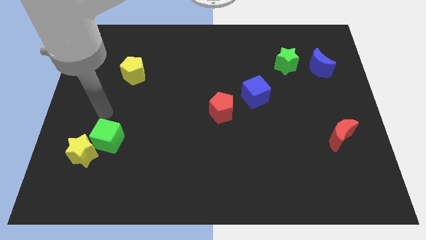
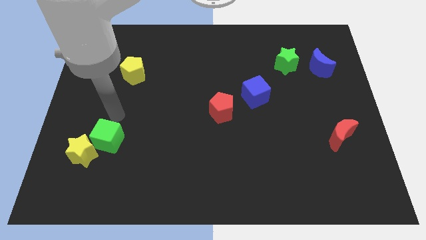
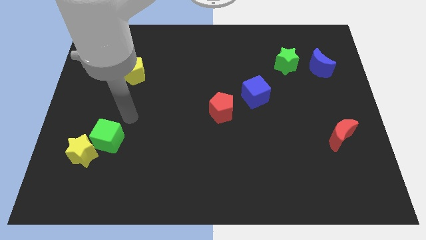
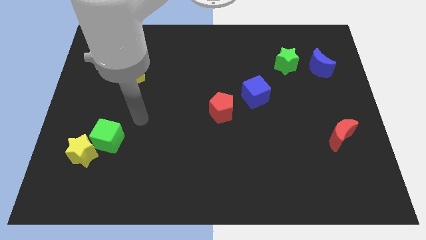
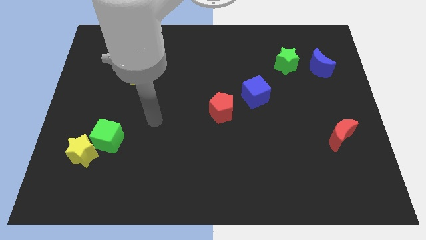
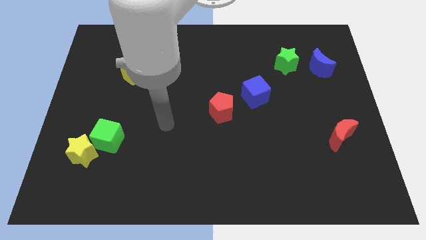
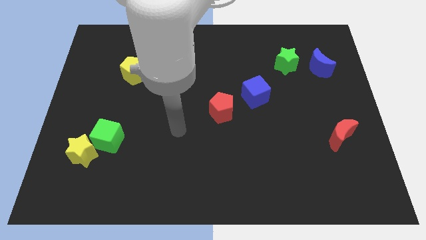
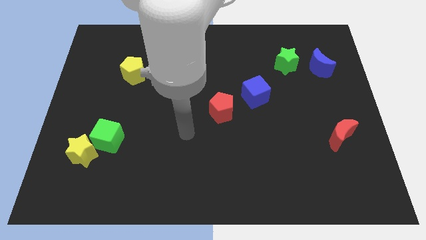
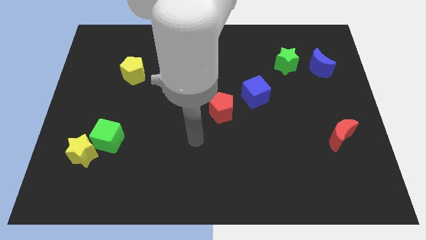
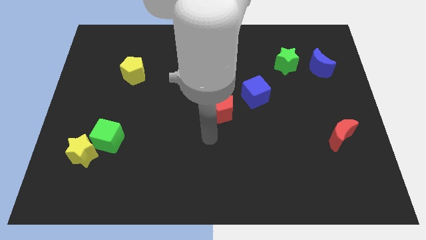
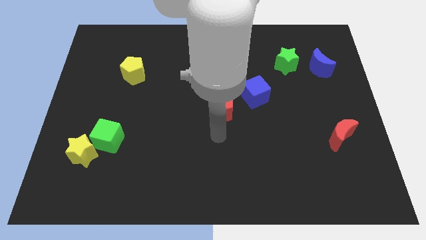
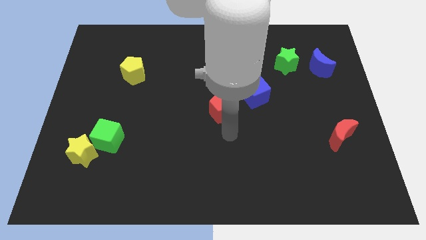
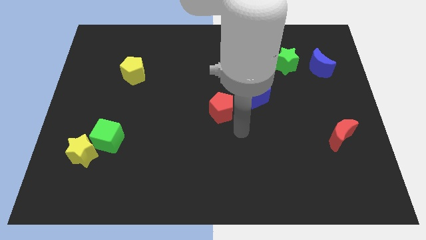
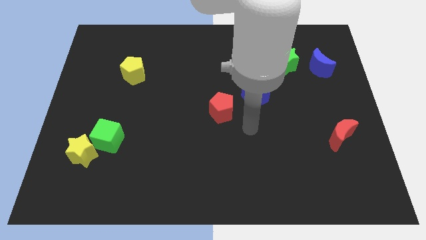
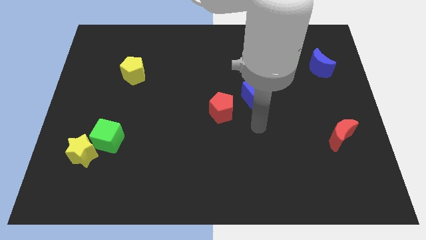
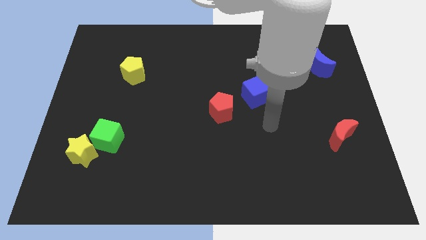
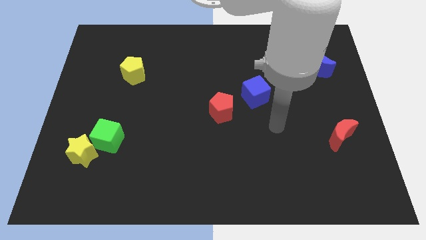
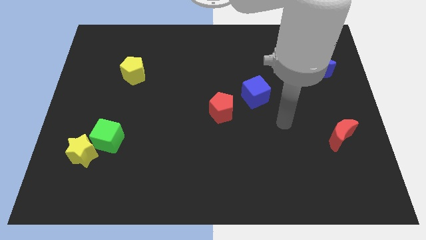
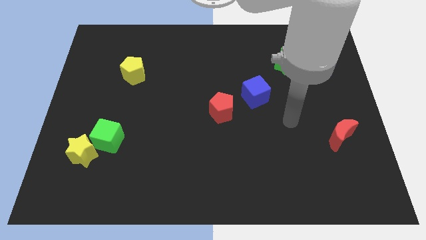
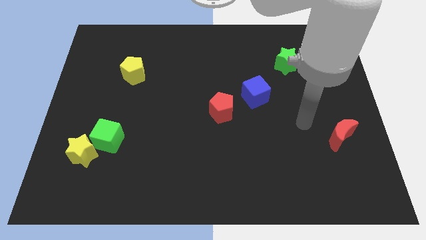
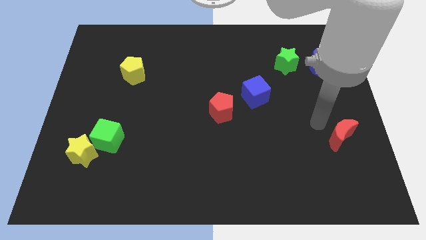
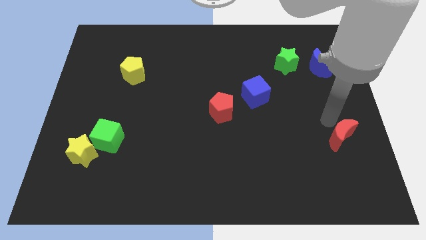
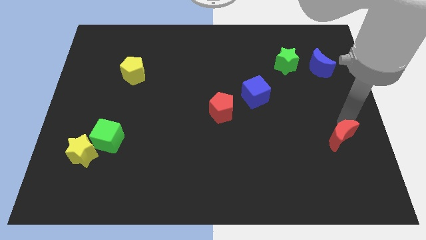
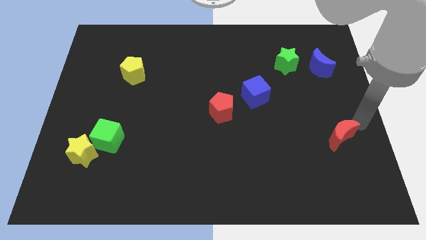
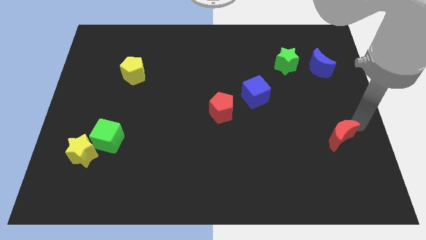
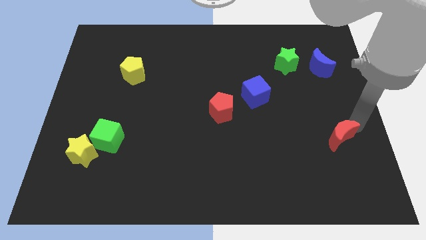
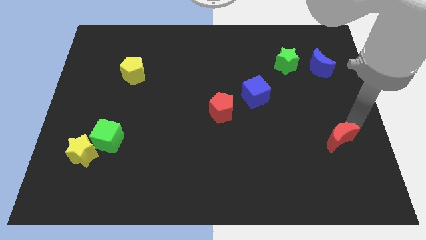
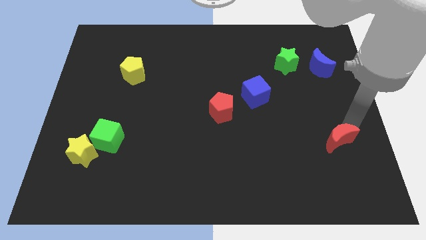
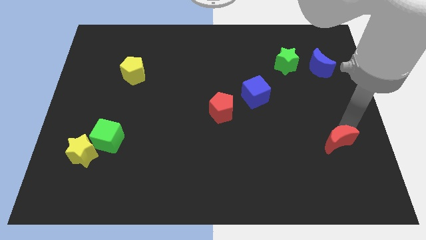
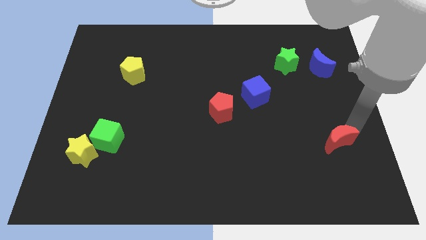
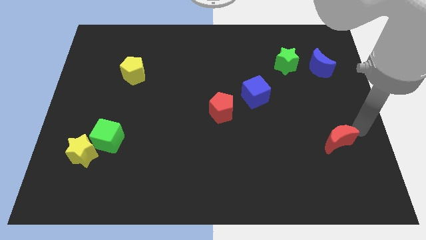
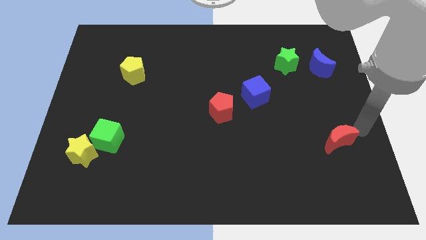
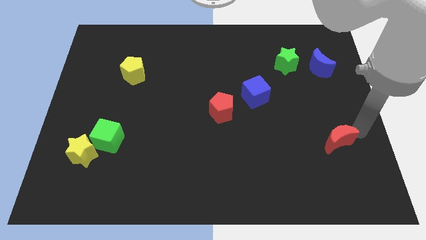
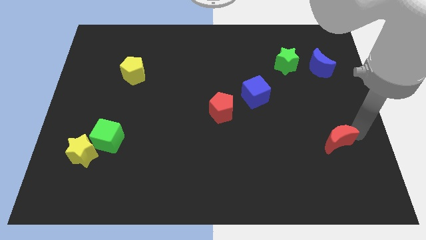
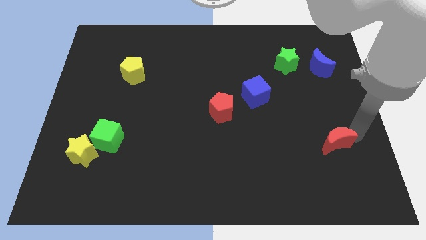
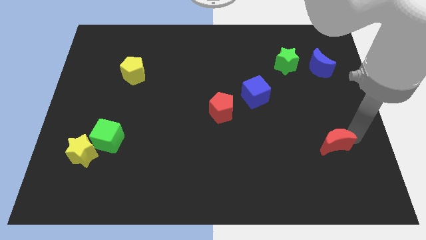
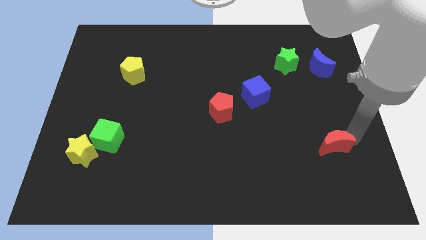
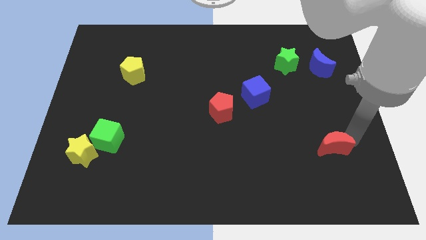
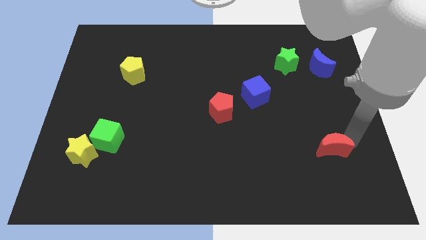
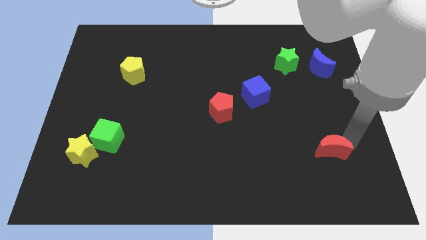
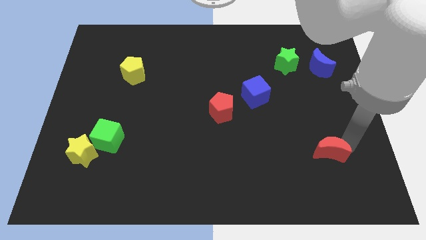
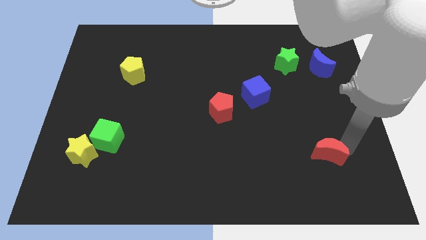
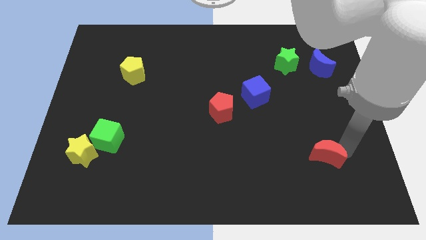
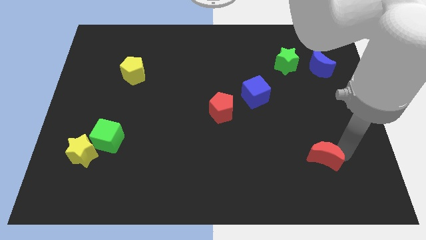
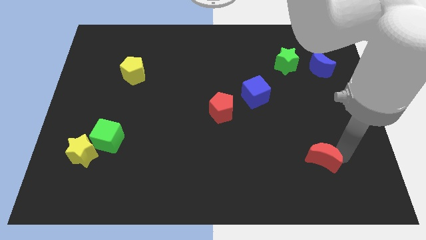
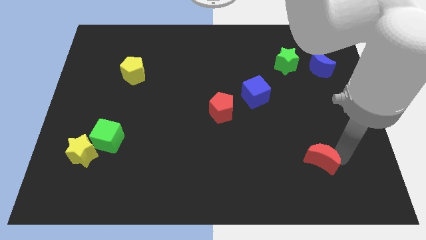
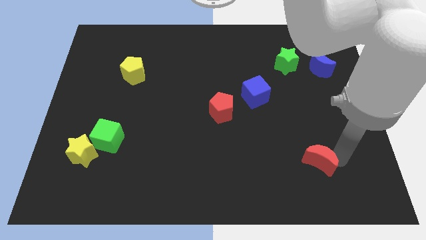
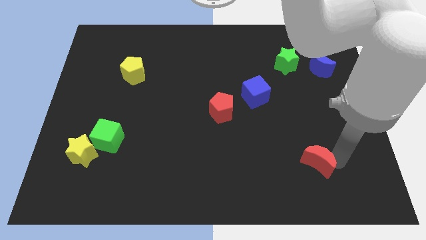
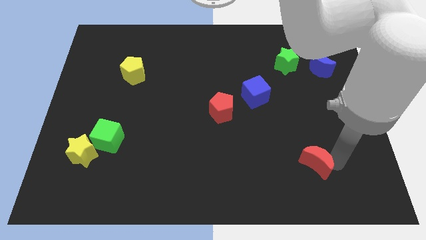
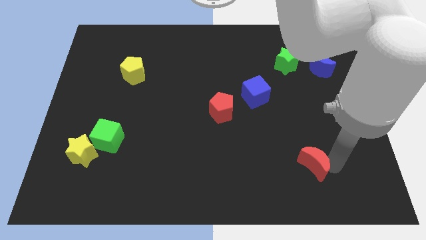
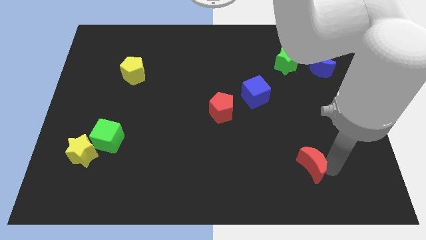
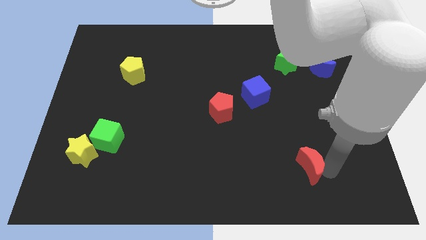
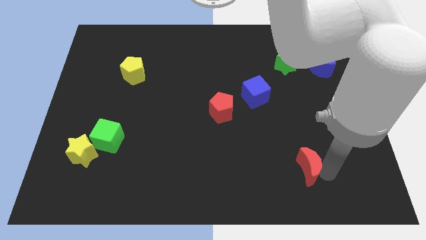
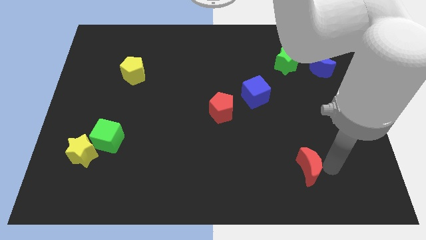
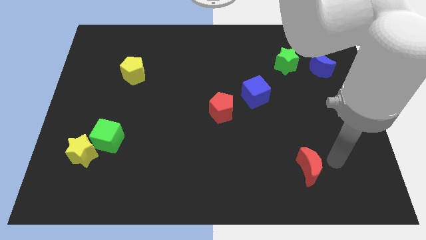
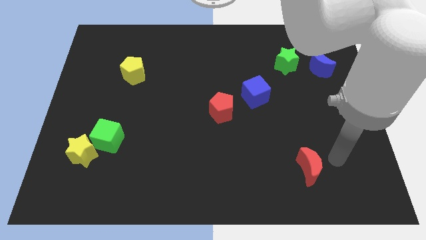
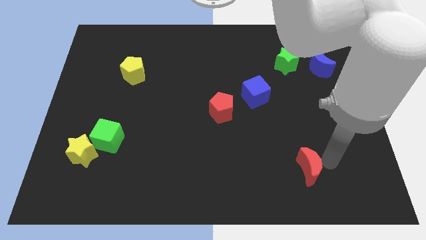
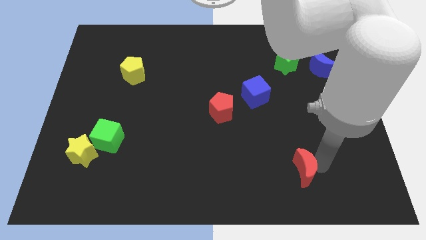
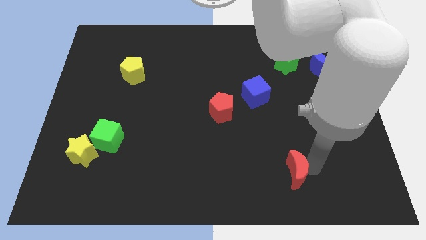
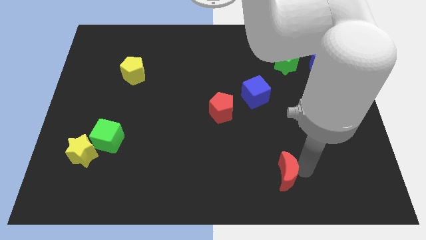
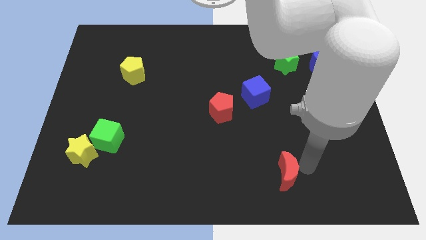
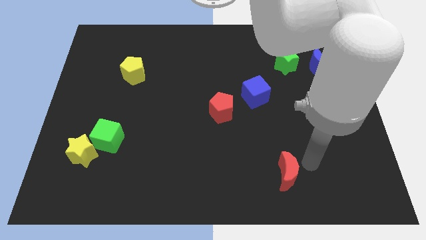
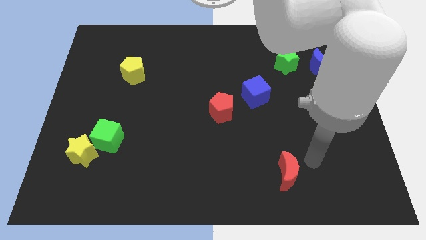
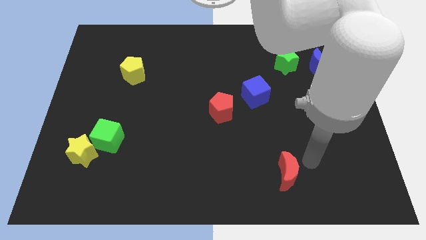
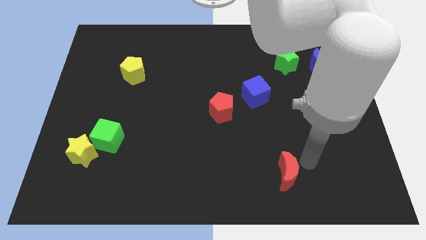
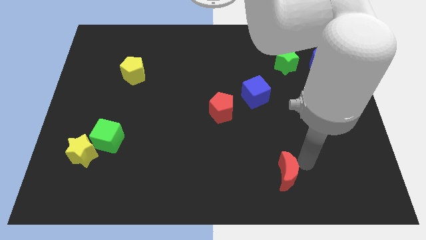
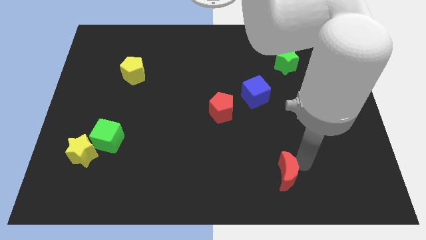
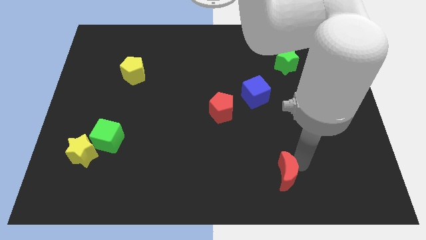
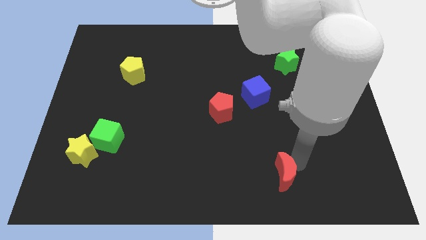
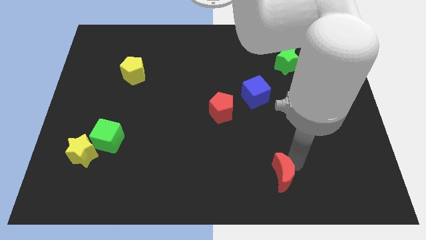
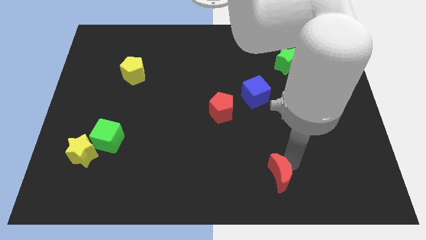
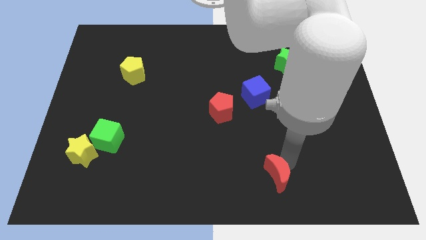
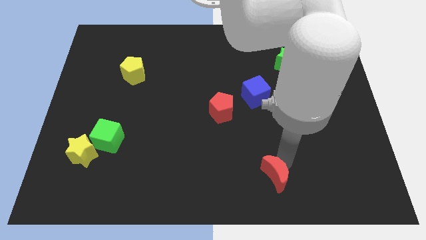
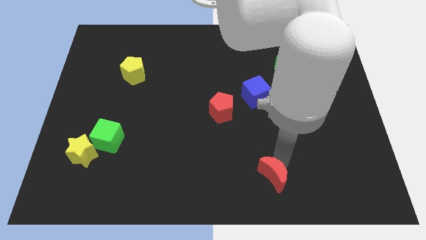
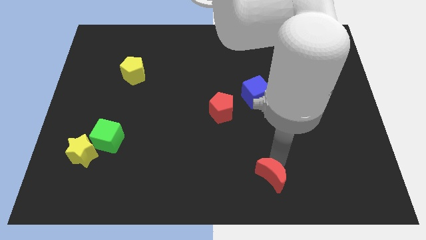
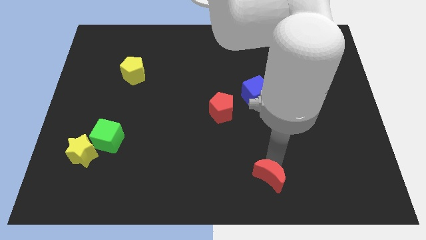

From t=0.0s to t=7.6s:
move the red moon to the bottom side
